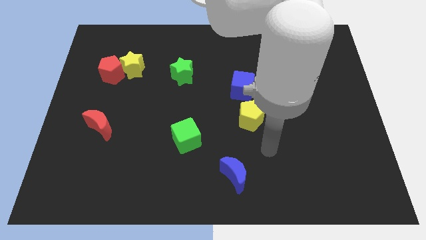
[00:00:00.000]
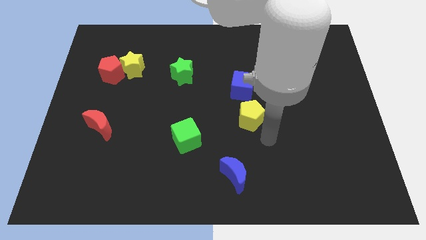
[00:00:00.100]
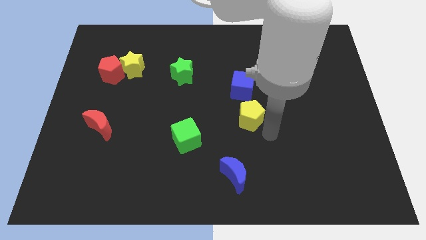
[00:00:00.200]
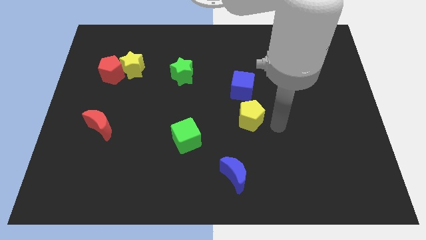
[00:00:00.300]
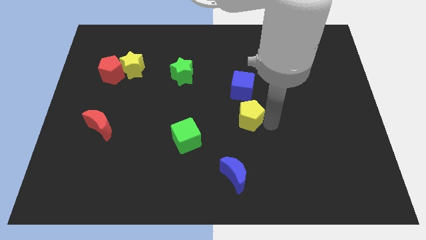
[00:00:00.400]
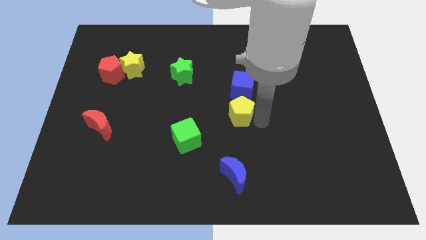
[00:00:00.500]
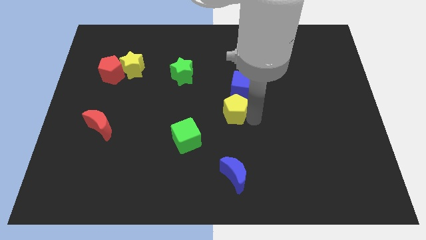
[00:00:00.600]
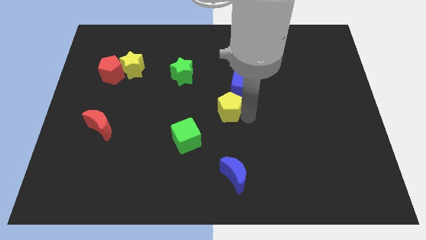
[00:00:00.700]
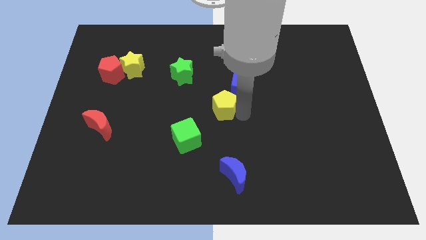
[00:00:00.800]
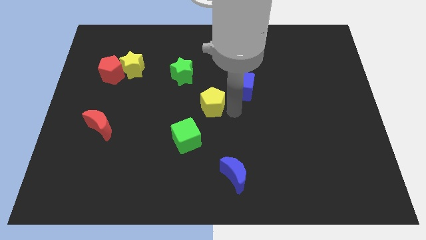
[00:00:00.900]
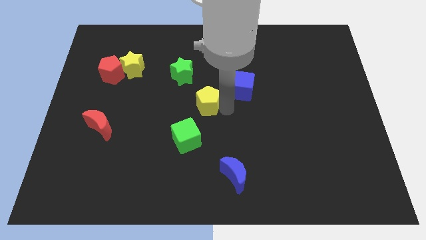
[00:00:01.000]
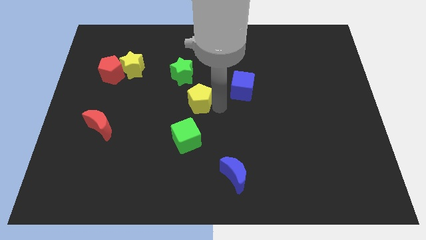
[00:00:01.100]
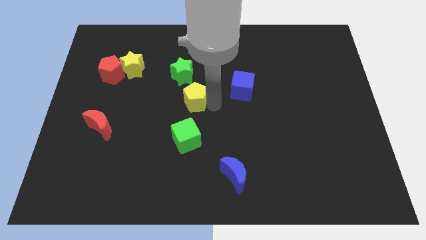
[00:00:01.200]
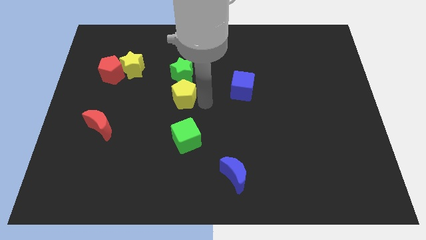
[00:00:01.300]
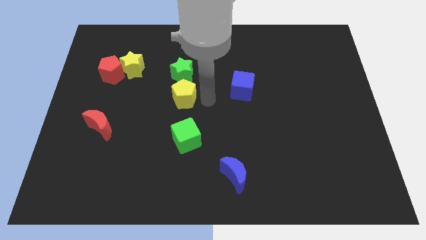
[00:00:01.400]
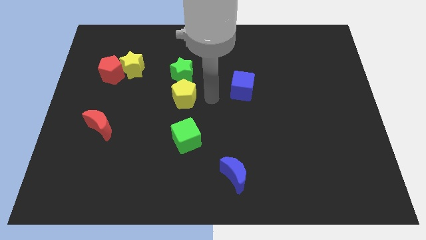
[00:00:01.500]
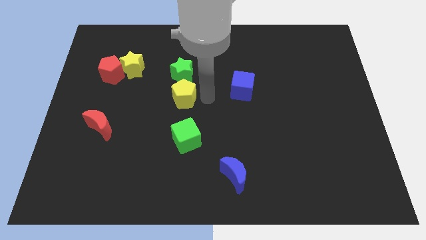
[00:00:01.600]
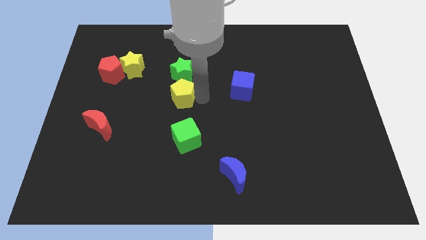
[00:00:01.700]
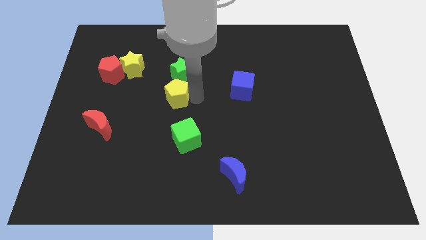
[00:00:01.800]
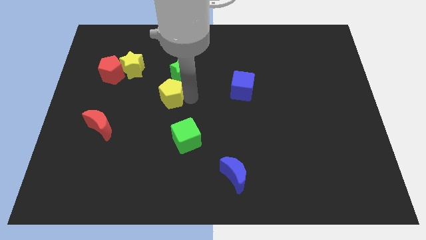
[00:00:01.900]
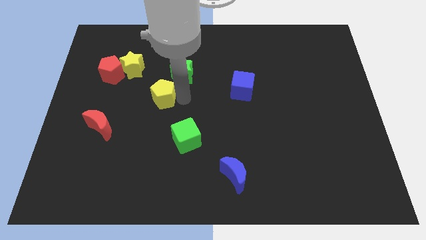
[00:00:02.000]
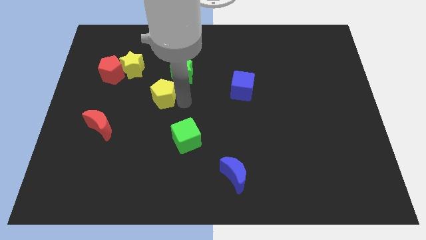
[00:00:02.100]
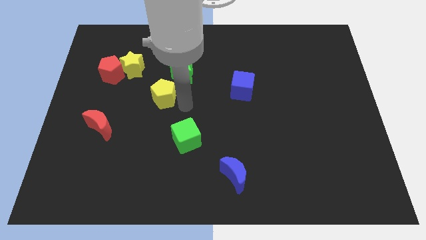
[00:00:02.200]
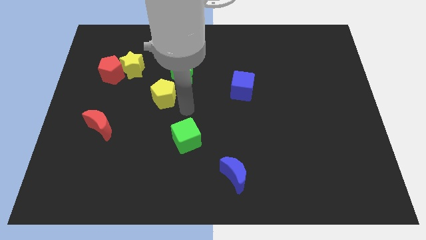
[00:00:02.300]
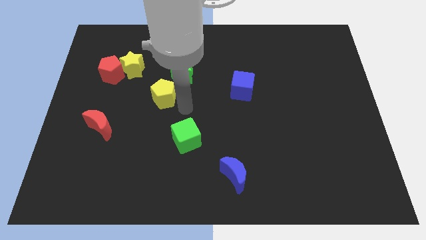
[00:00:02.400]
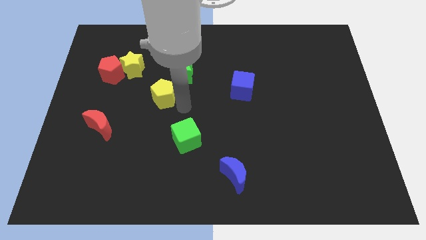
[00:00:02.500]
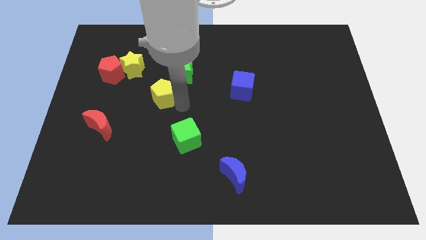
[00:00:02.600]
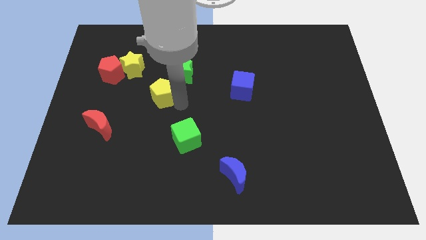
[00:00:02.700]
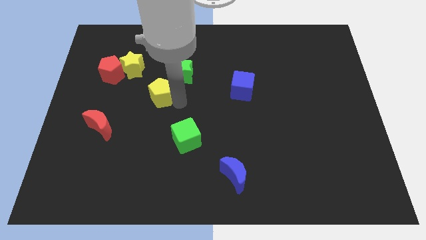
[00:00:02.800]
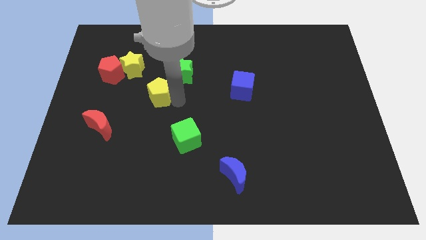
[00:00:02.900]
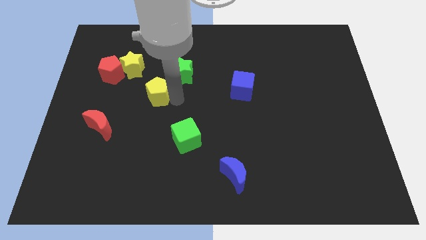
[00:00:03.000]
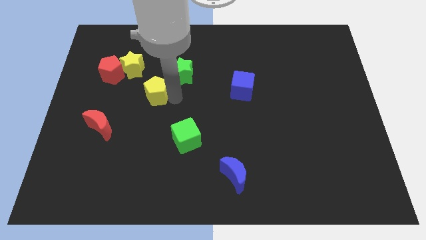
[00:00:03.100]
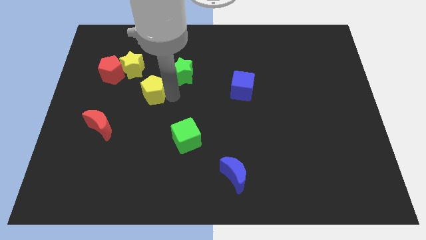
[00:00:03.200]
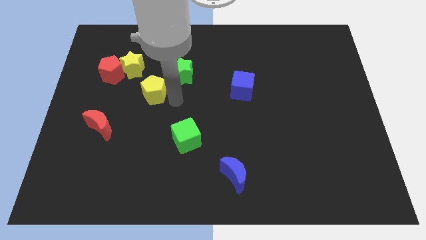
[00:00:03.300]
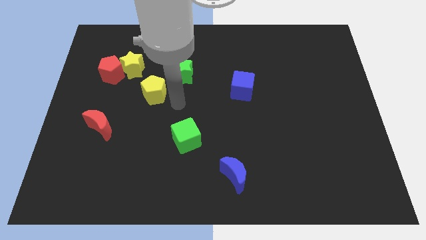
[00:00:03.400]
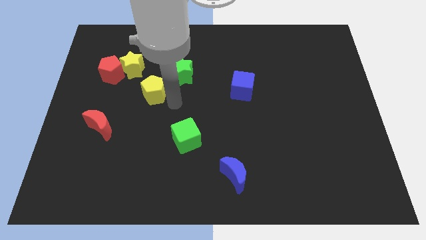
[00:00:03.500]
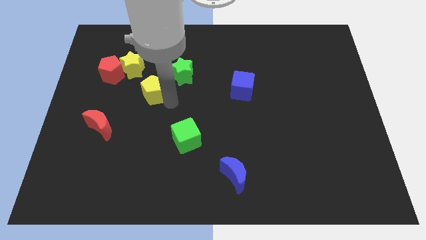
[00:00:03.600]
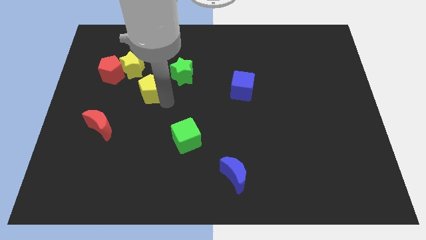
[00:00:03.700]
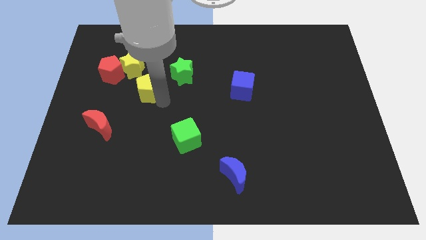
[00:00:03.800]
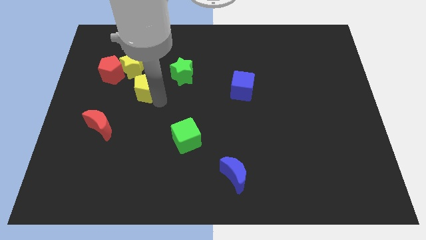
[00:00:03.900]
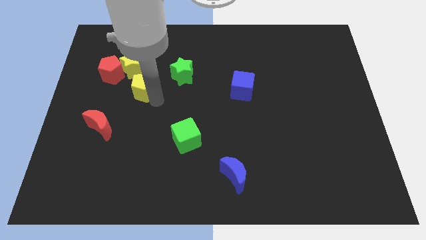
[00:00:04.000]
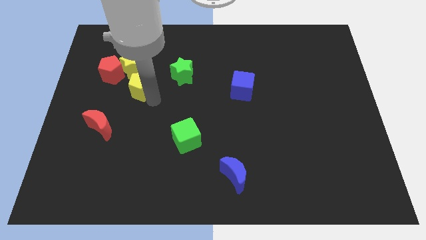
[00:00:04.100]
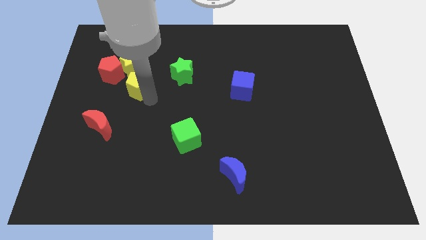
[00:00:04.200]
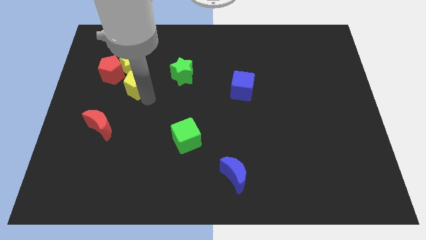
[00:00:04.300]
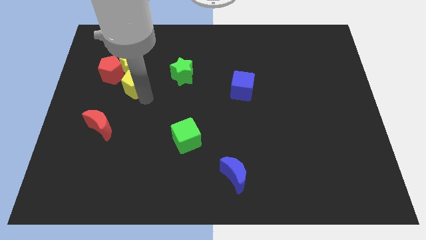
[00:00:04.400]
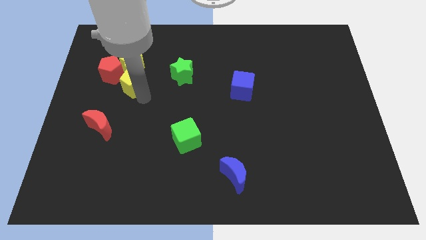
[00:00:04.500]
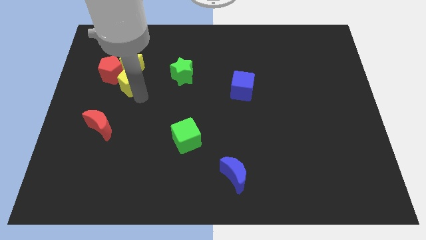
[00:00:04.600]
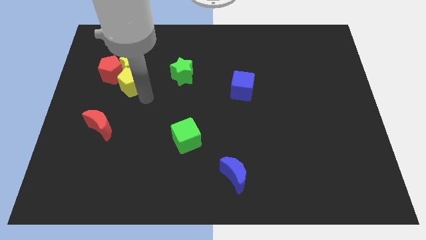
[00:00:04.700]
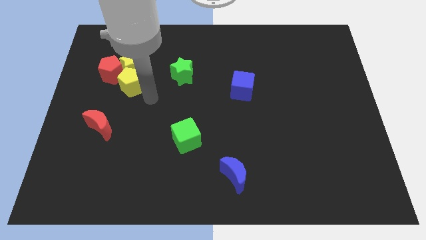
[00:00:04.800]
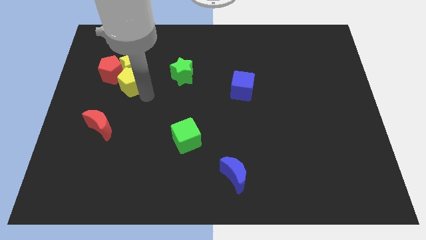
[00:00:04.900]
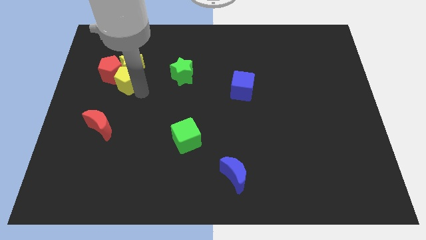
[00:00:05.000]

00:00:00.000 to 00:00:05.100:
push the yellow pentagon next to the red pentagon

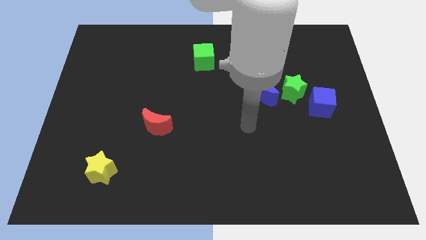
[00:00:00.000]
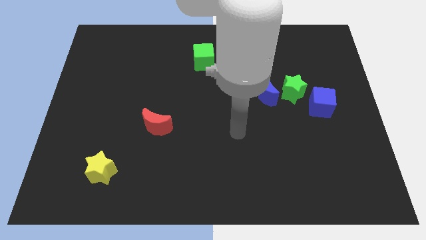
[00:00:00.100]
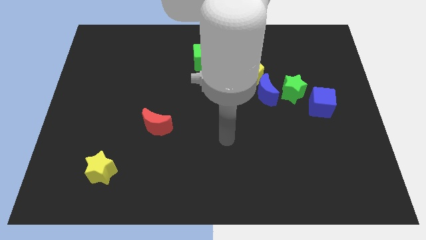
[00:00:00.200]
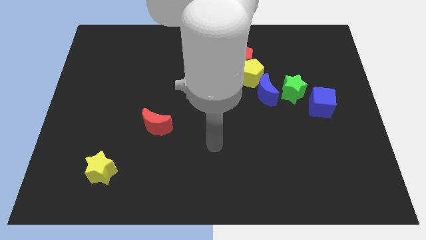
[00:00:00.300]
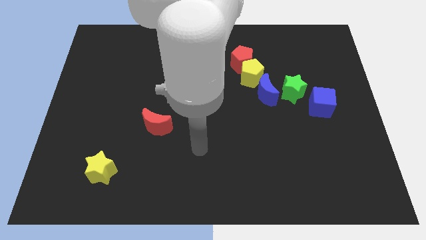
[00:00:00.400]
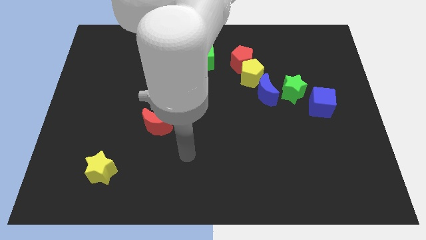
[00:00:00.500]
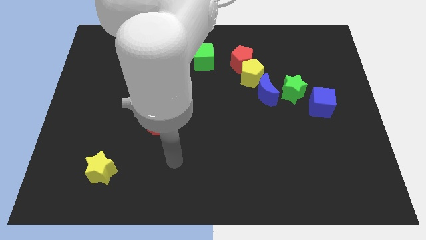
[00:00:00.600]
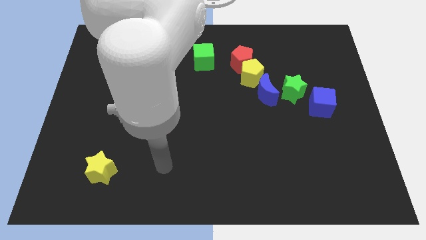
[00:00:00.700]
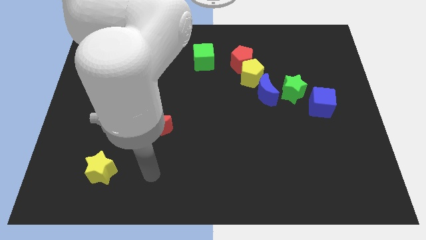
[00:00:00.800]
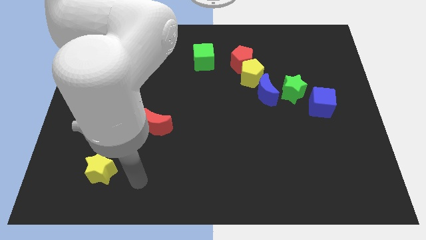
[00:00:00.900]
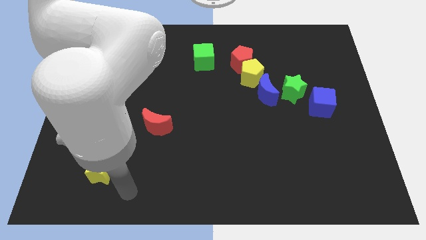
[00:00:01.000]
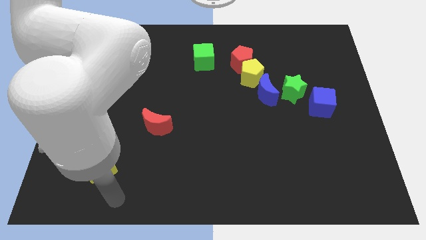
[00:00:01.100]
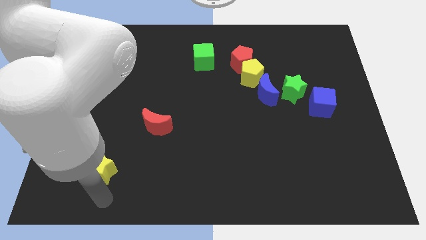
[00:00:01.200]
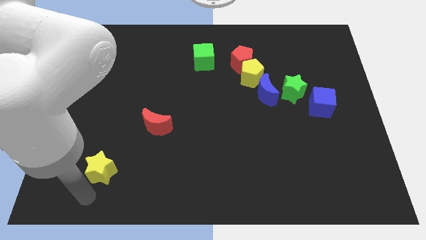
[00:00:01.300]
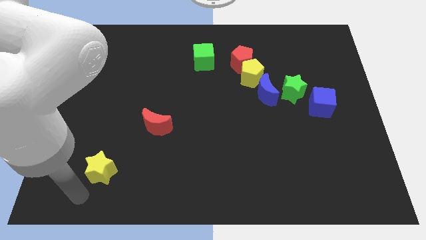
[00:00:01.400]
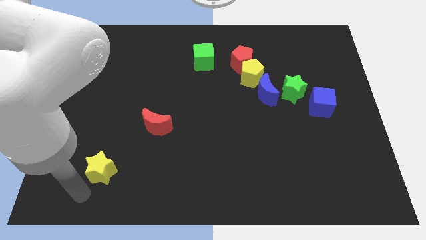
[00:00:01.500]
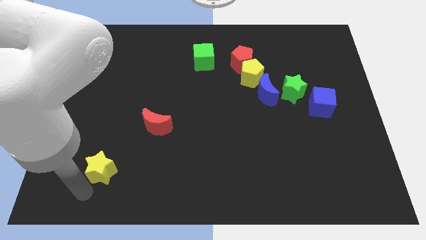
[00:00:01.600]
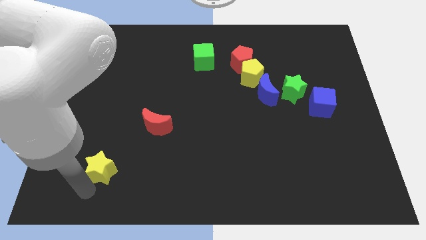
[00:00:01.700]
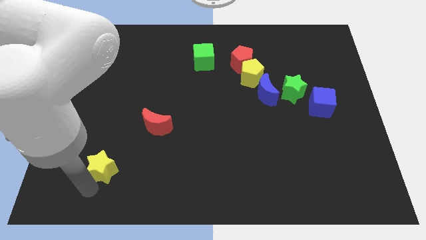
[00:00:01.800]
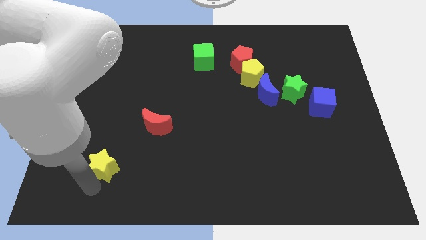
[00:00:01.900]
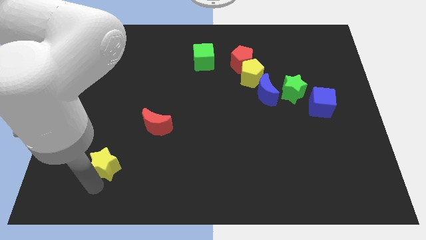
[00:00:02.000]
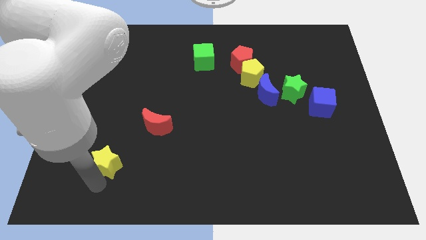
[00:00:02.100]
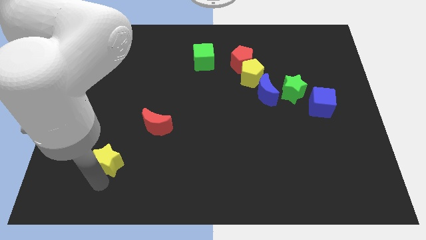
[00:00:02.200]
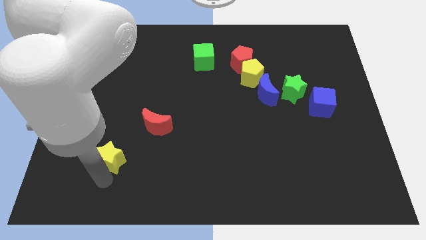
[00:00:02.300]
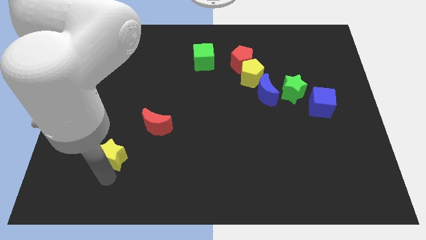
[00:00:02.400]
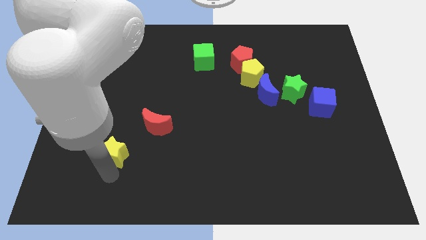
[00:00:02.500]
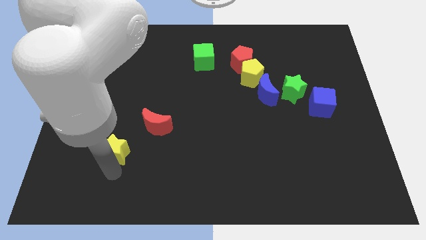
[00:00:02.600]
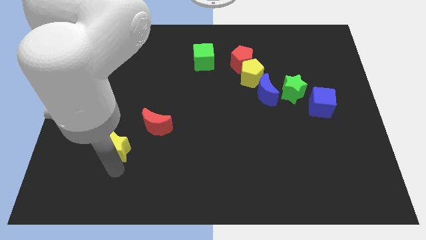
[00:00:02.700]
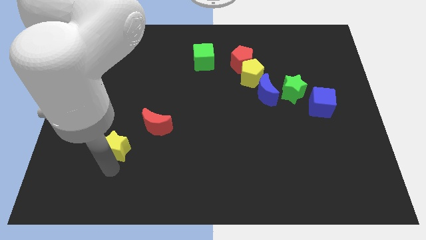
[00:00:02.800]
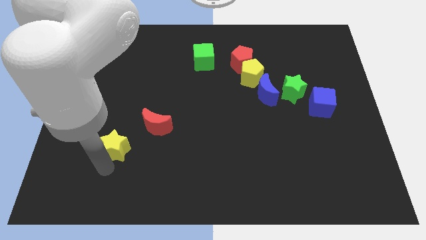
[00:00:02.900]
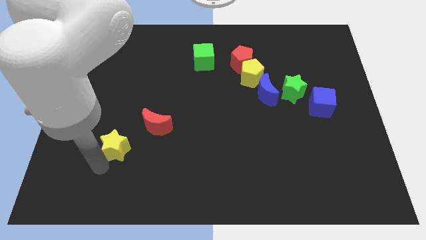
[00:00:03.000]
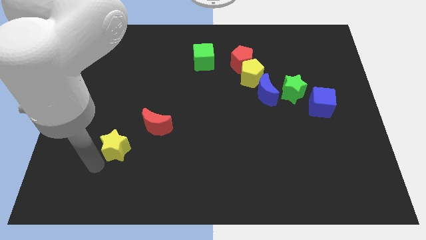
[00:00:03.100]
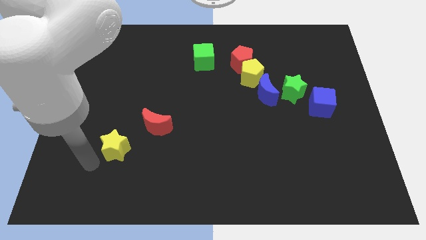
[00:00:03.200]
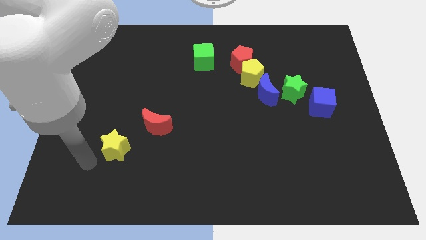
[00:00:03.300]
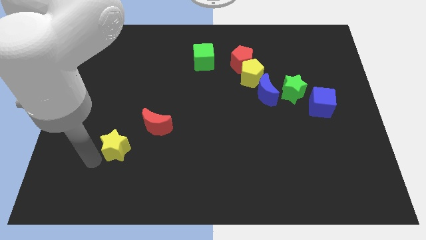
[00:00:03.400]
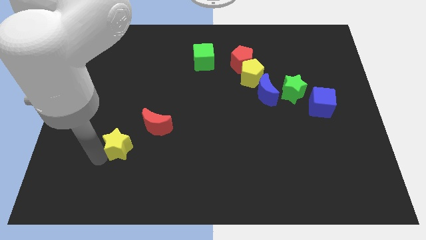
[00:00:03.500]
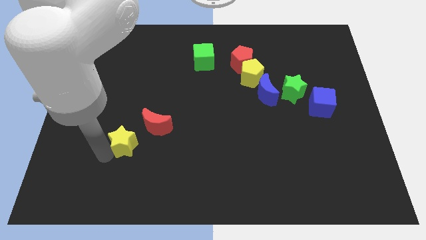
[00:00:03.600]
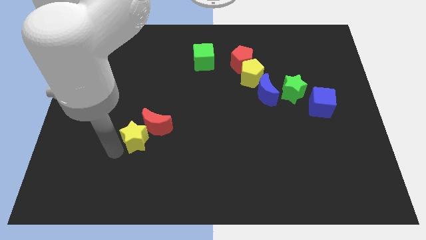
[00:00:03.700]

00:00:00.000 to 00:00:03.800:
put the yellow star close to the red moon
